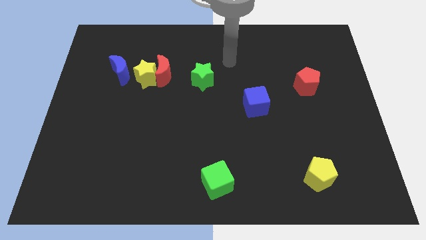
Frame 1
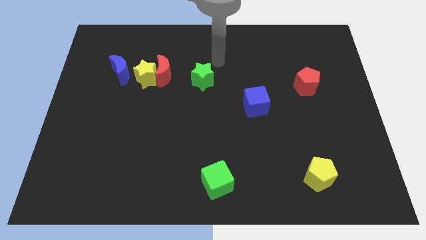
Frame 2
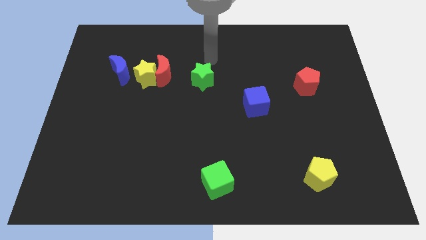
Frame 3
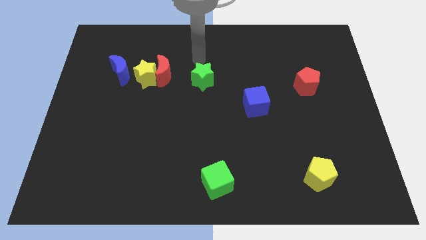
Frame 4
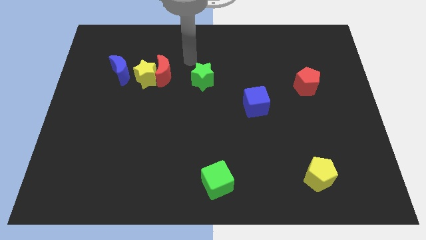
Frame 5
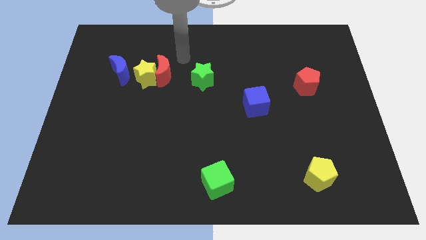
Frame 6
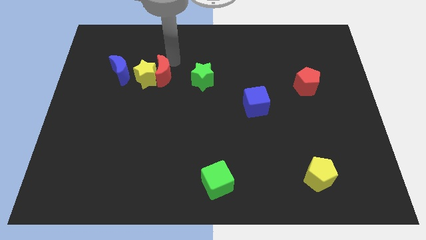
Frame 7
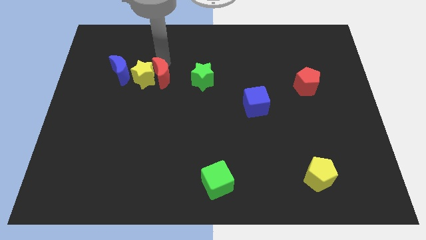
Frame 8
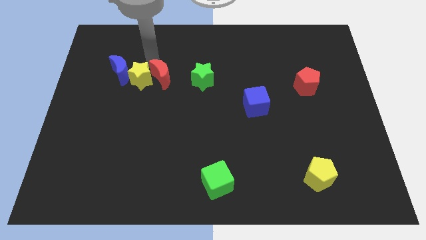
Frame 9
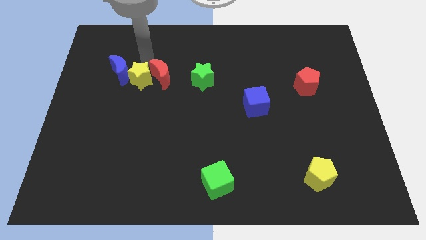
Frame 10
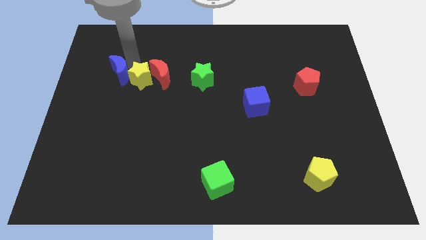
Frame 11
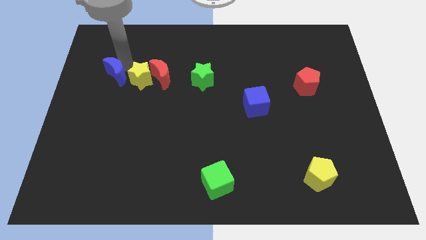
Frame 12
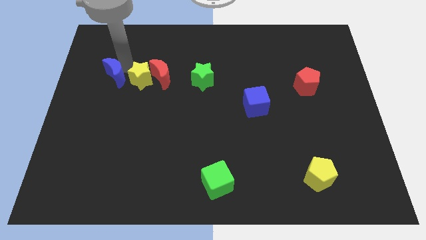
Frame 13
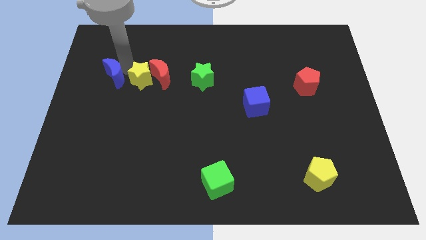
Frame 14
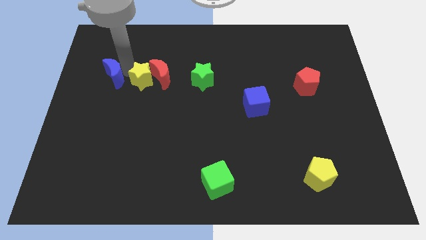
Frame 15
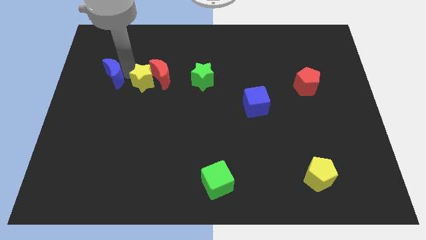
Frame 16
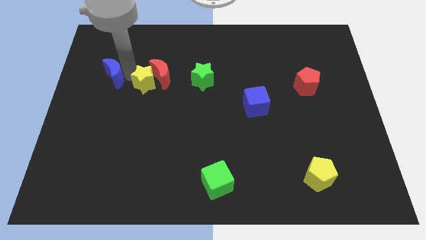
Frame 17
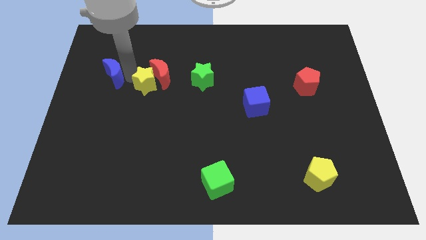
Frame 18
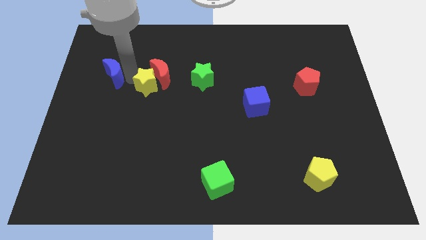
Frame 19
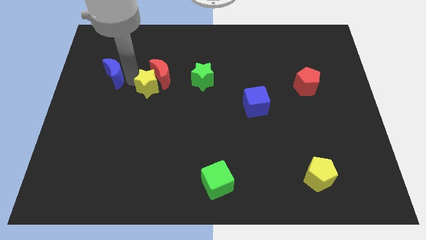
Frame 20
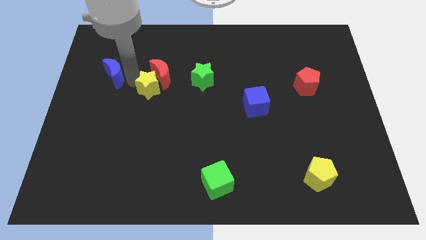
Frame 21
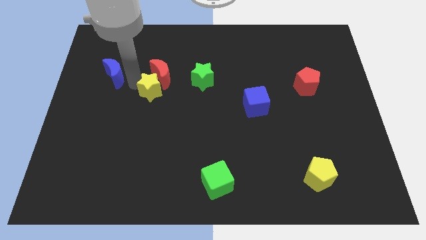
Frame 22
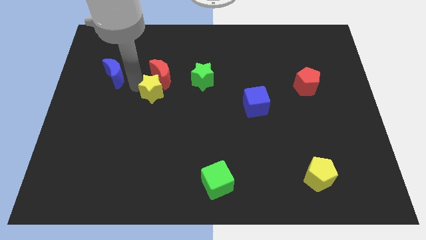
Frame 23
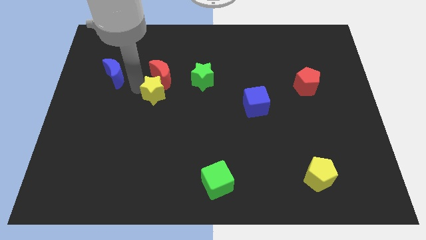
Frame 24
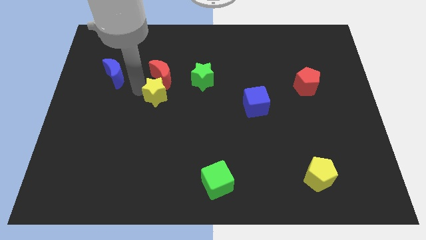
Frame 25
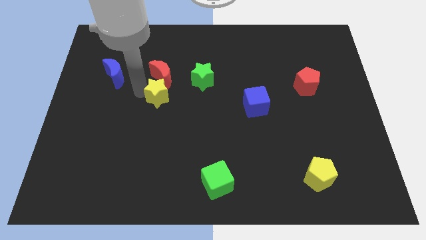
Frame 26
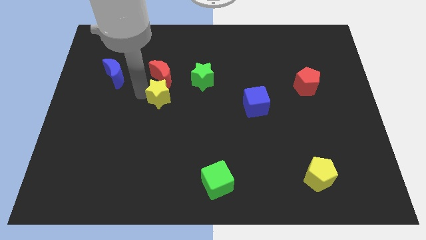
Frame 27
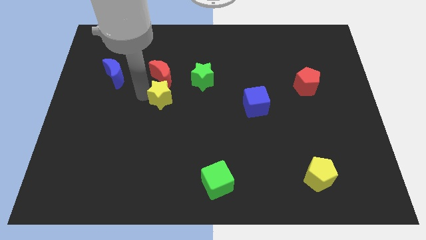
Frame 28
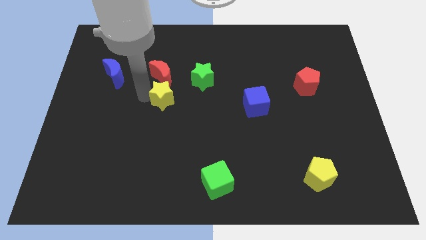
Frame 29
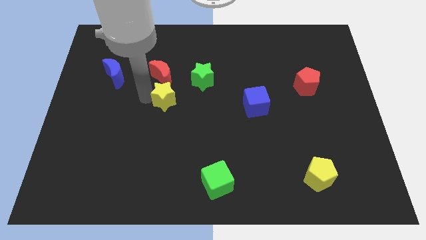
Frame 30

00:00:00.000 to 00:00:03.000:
pull the yellow star apart from the red moon and blue moon

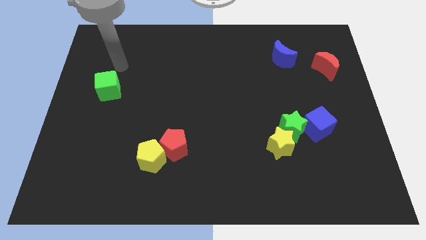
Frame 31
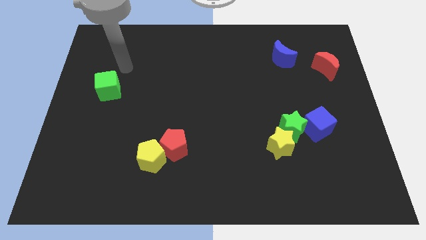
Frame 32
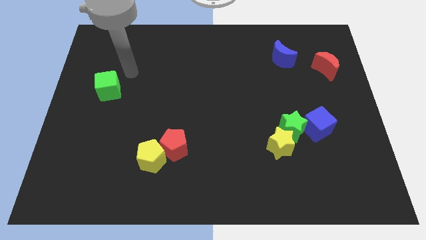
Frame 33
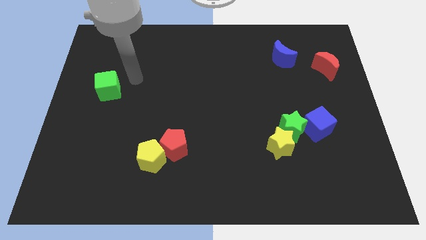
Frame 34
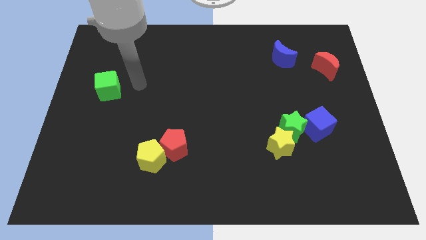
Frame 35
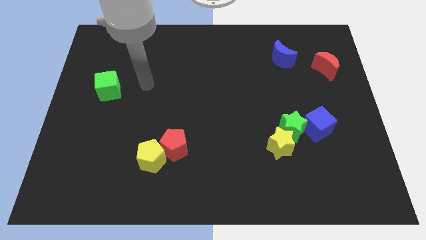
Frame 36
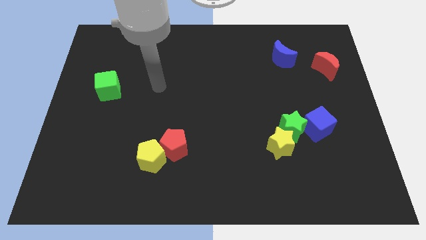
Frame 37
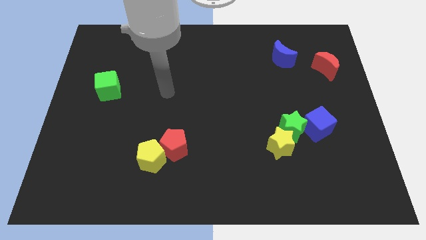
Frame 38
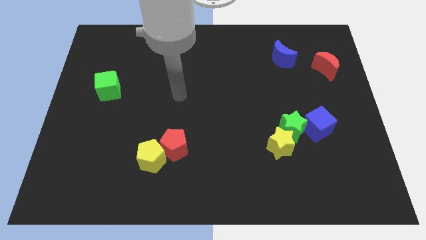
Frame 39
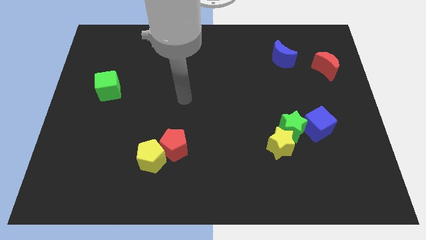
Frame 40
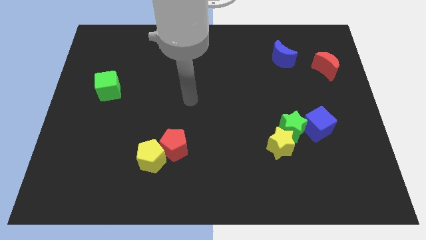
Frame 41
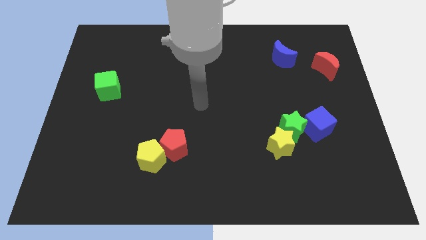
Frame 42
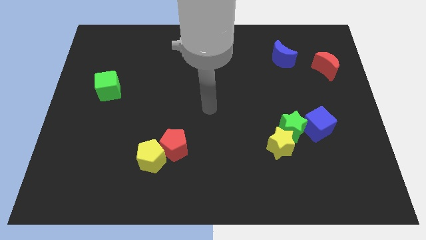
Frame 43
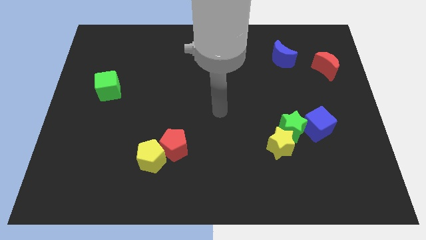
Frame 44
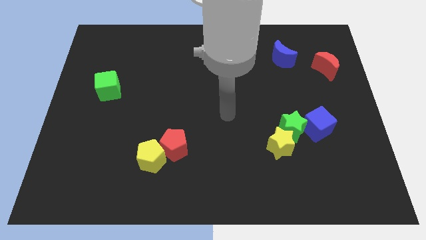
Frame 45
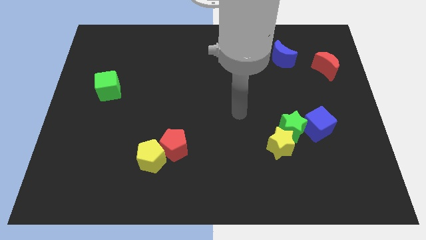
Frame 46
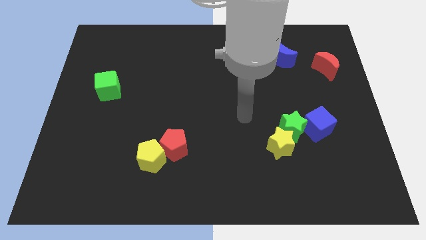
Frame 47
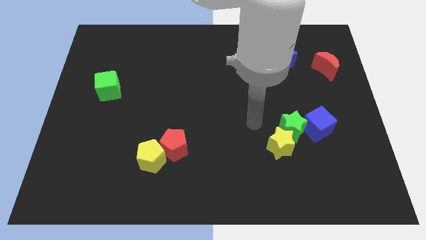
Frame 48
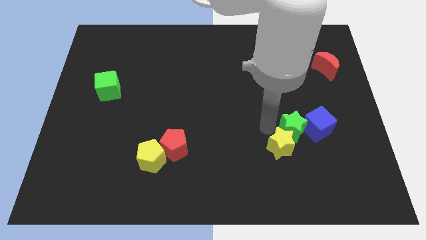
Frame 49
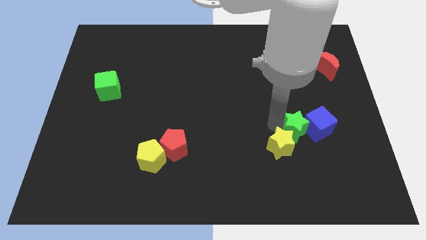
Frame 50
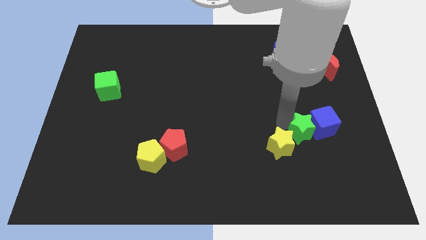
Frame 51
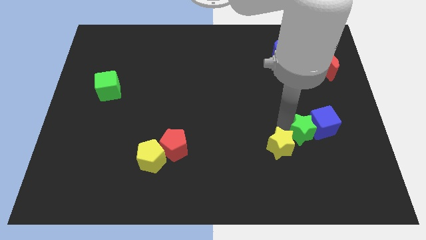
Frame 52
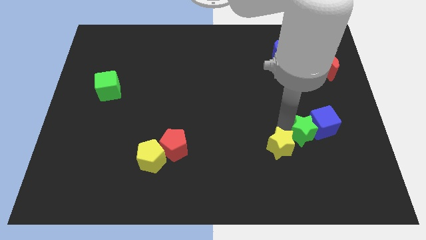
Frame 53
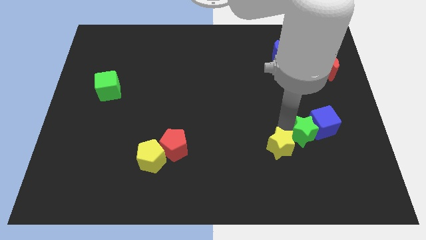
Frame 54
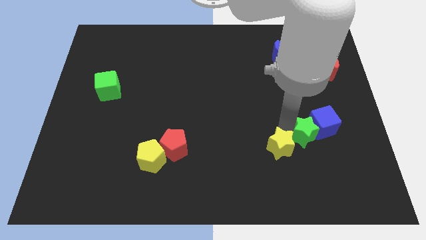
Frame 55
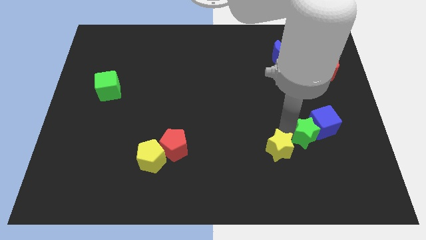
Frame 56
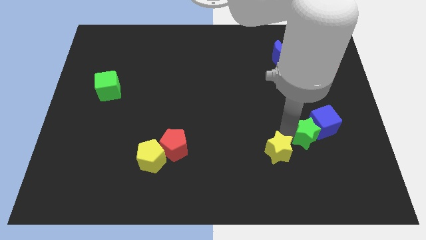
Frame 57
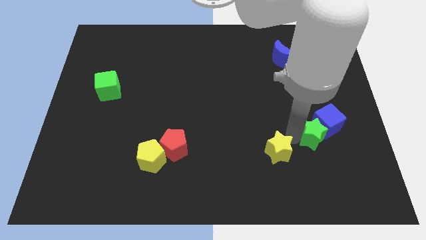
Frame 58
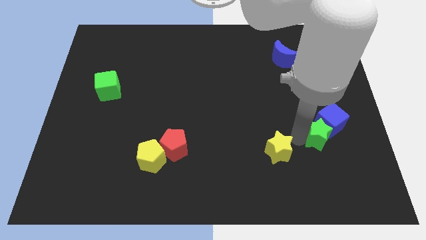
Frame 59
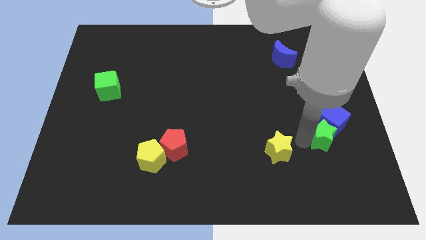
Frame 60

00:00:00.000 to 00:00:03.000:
move the yellow star away from the green star

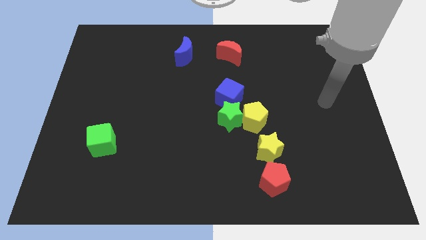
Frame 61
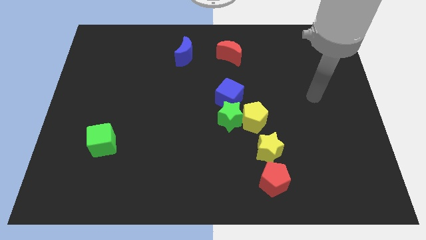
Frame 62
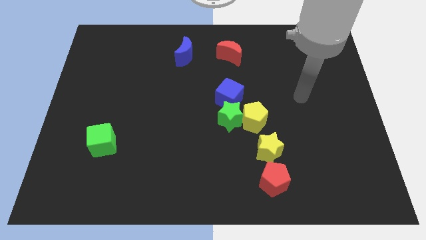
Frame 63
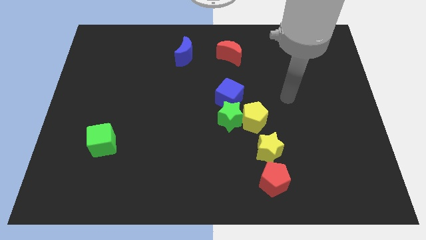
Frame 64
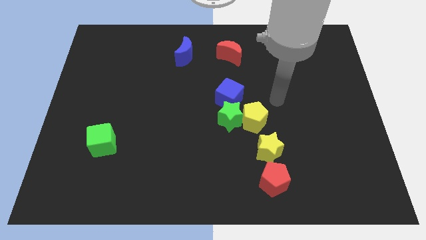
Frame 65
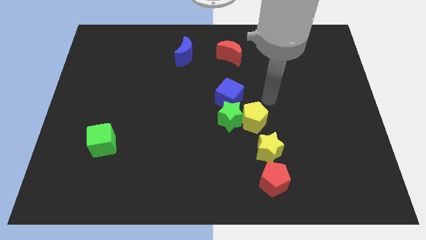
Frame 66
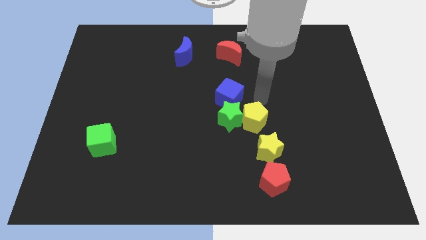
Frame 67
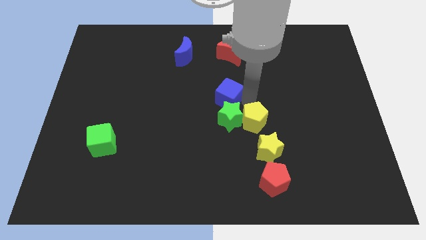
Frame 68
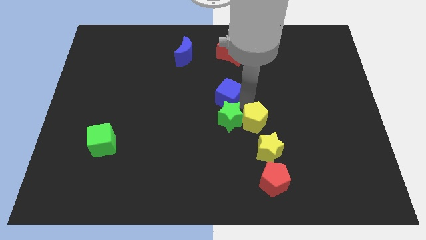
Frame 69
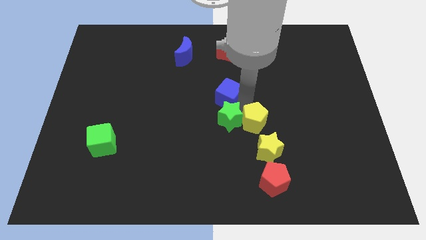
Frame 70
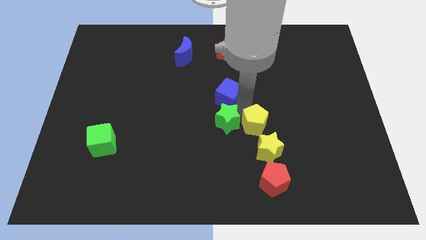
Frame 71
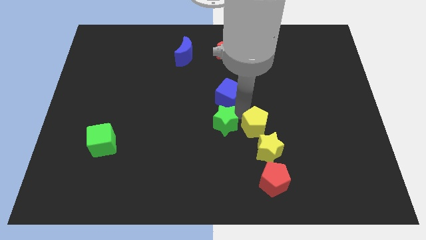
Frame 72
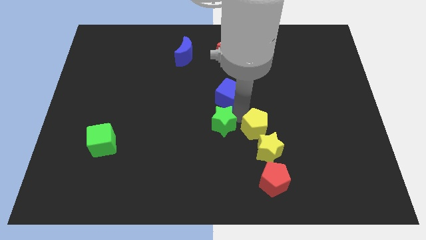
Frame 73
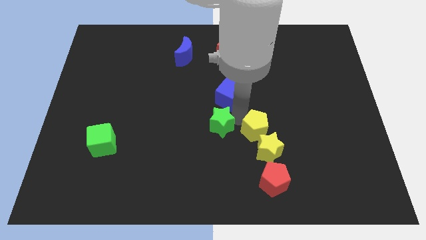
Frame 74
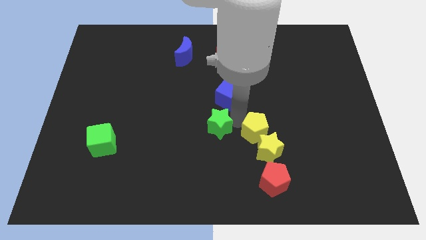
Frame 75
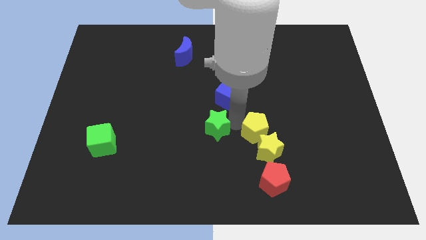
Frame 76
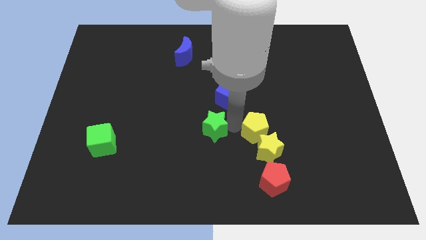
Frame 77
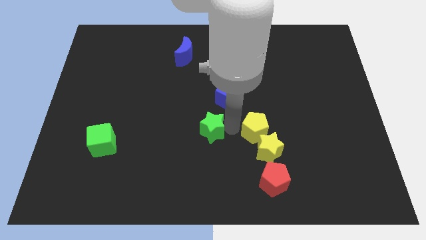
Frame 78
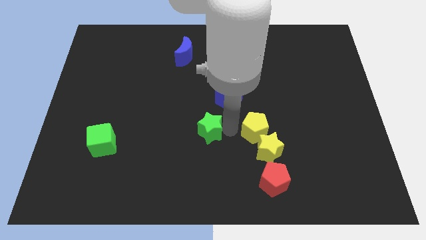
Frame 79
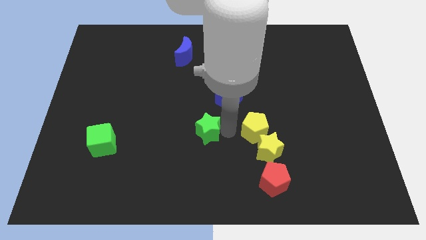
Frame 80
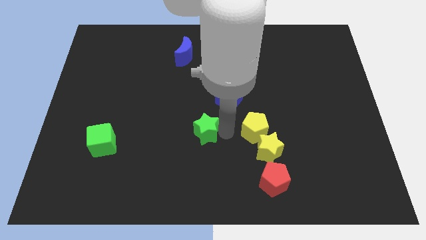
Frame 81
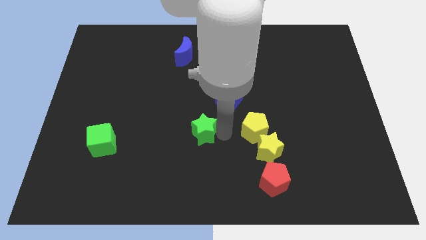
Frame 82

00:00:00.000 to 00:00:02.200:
pull the green star apart from the yellow pentagon and blue cube

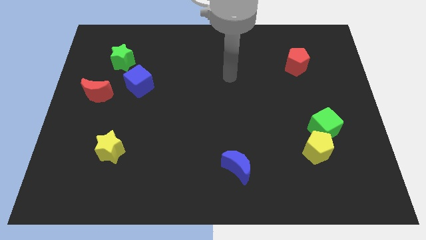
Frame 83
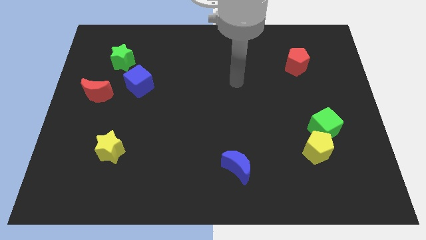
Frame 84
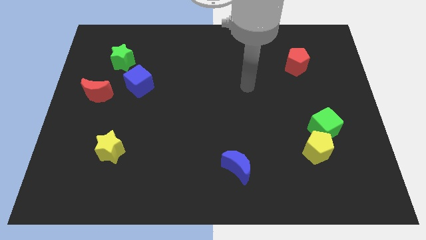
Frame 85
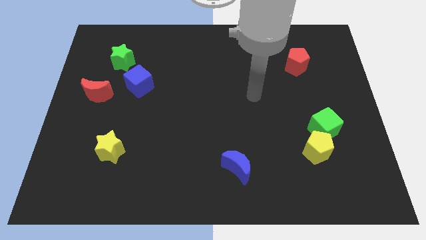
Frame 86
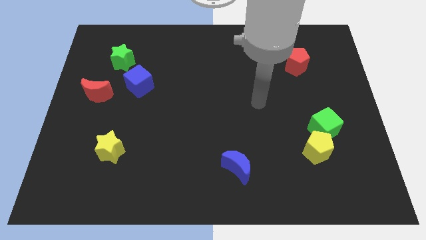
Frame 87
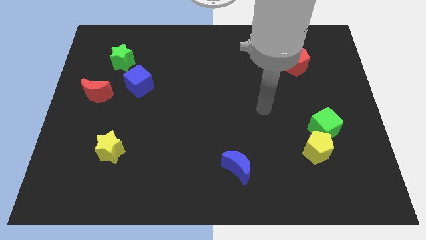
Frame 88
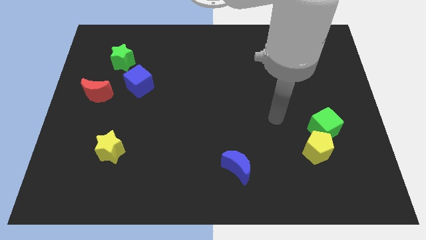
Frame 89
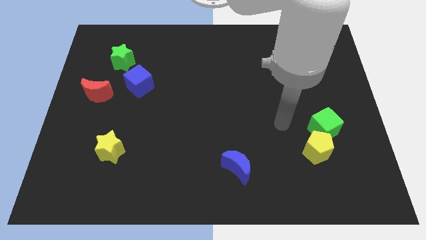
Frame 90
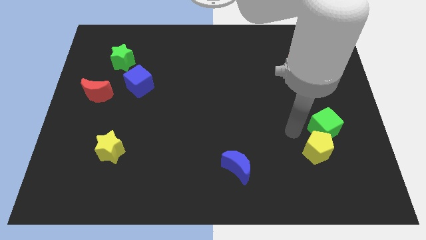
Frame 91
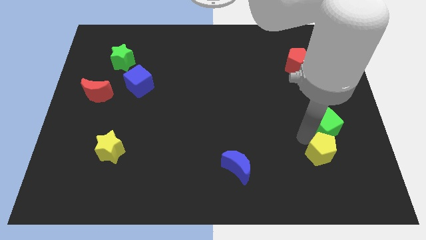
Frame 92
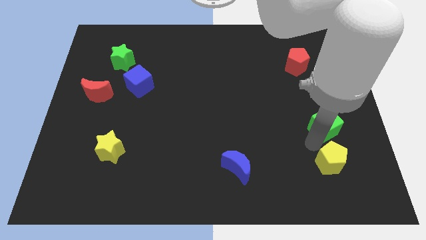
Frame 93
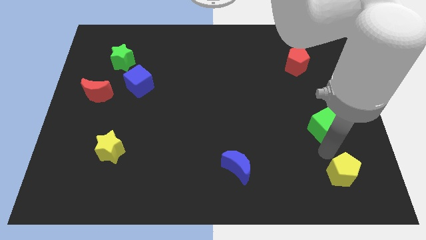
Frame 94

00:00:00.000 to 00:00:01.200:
move the green cube away from the yellow pentagon
